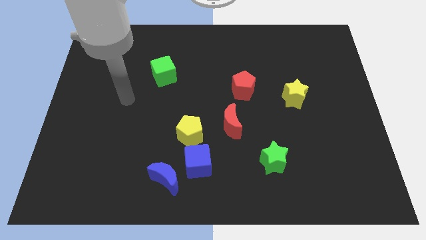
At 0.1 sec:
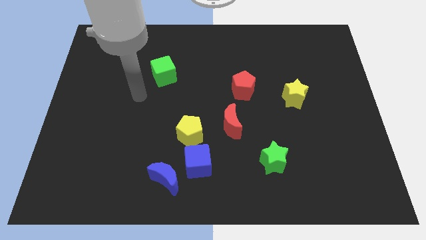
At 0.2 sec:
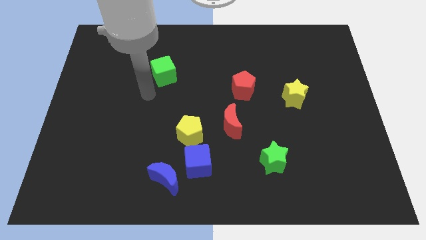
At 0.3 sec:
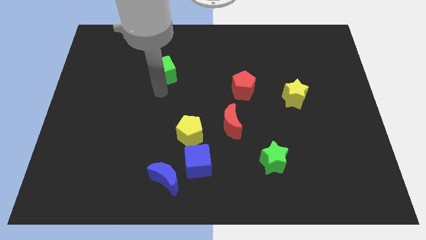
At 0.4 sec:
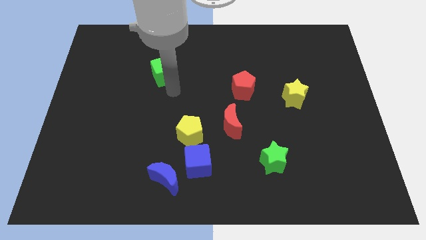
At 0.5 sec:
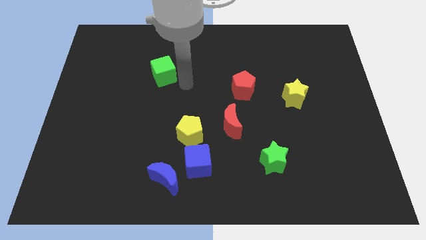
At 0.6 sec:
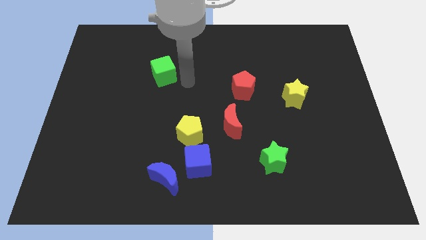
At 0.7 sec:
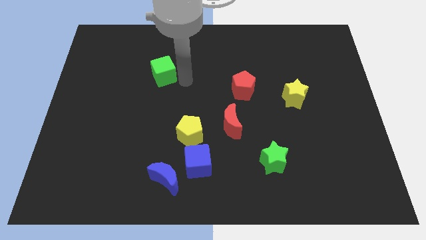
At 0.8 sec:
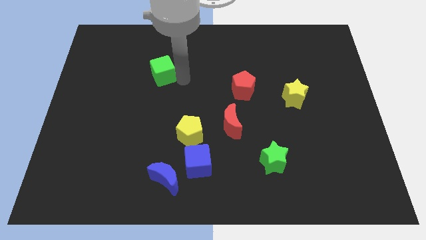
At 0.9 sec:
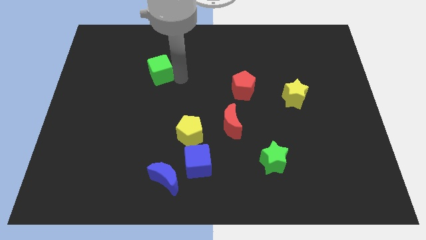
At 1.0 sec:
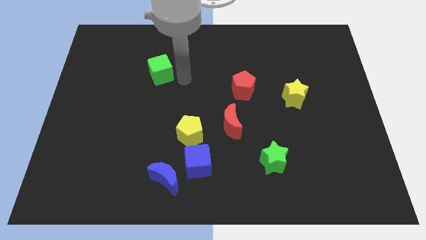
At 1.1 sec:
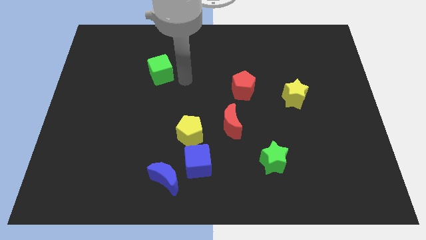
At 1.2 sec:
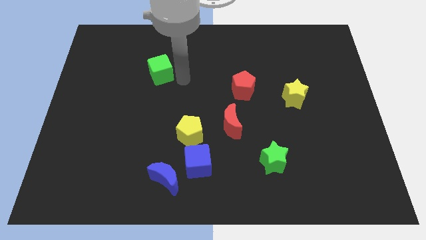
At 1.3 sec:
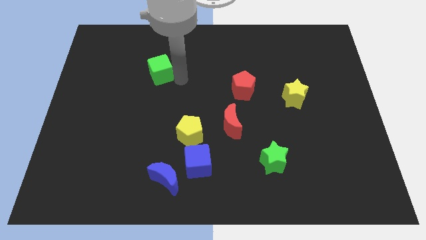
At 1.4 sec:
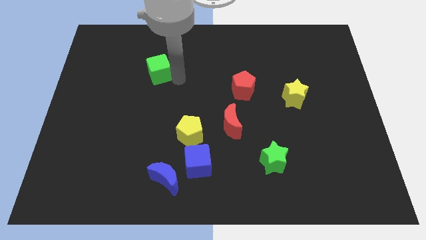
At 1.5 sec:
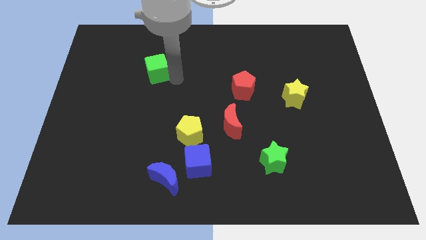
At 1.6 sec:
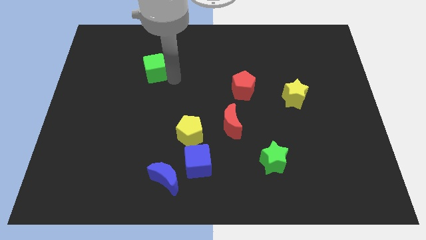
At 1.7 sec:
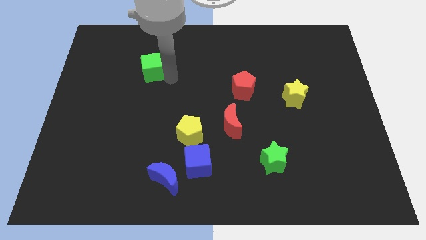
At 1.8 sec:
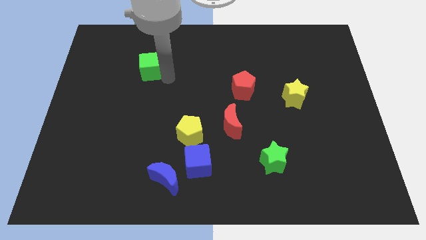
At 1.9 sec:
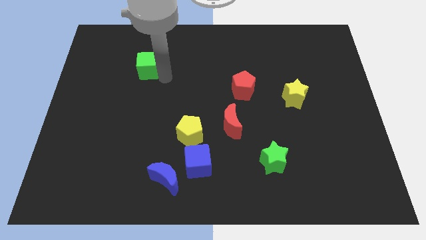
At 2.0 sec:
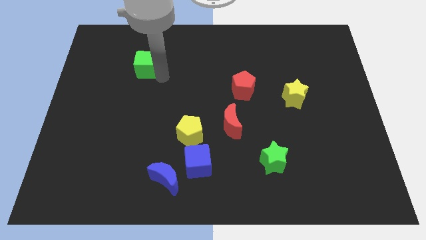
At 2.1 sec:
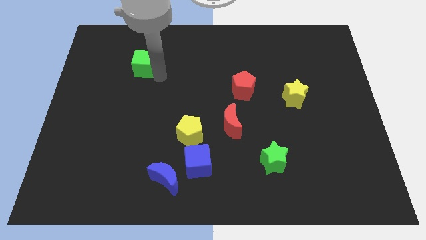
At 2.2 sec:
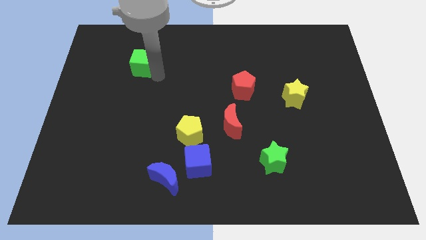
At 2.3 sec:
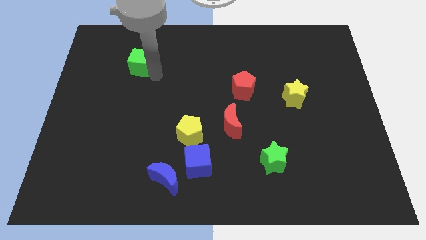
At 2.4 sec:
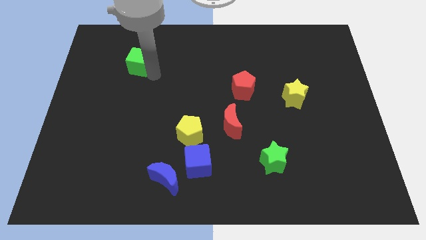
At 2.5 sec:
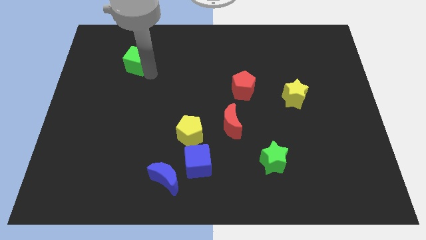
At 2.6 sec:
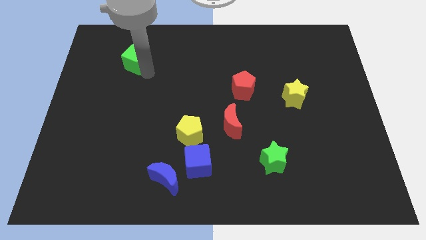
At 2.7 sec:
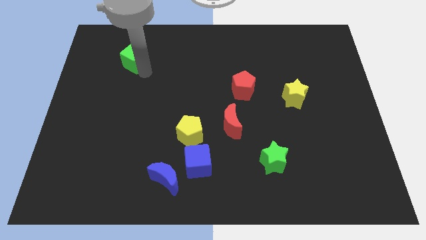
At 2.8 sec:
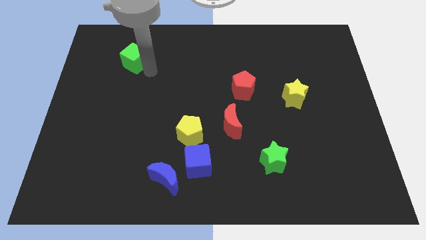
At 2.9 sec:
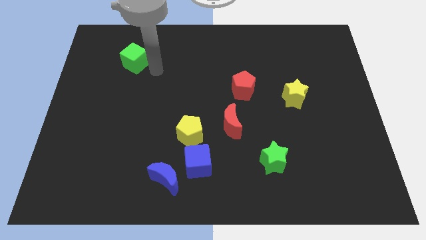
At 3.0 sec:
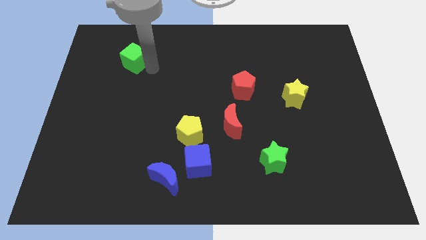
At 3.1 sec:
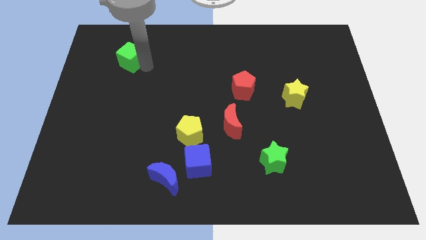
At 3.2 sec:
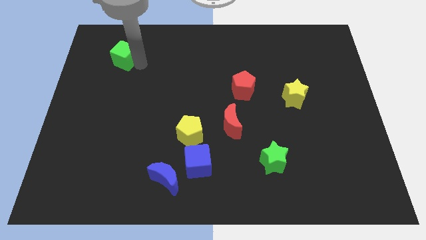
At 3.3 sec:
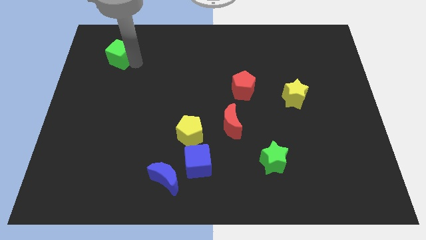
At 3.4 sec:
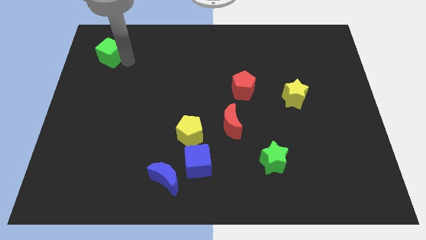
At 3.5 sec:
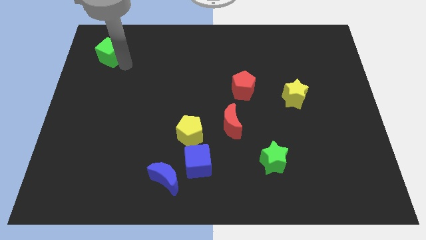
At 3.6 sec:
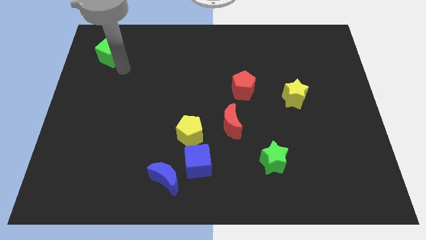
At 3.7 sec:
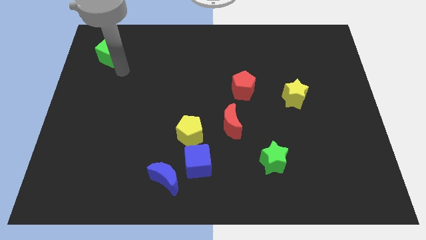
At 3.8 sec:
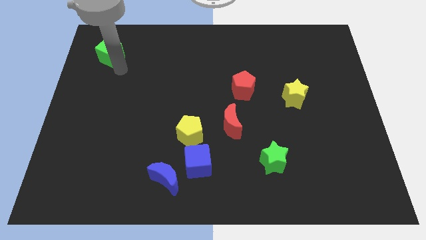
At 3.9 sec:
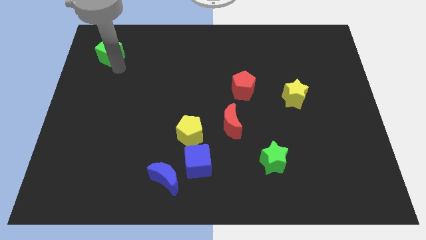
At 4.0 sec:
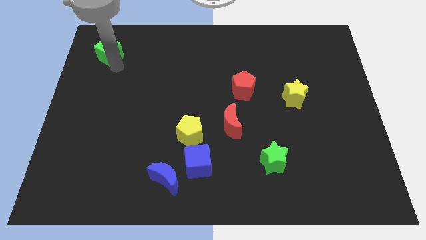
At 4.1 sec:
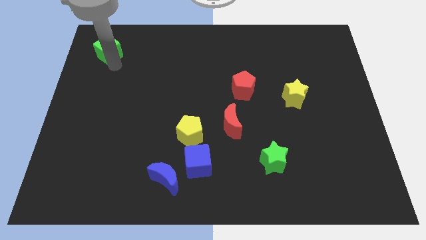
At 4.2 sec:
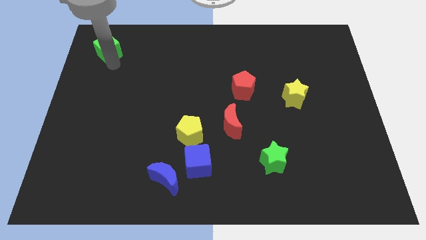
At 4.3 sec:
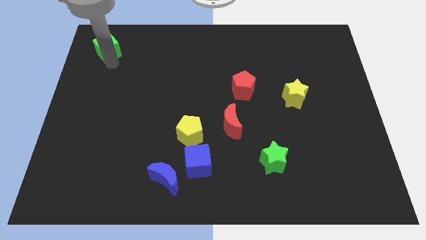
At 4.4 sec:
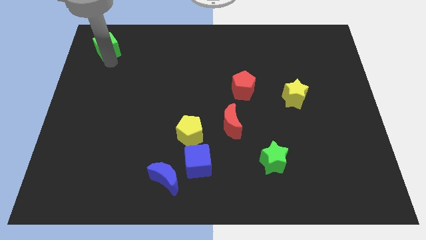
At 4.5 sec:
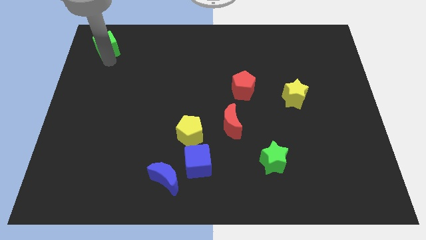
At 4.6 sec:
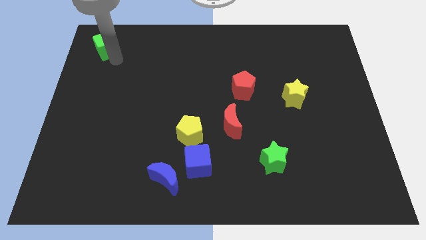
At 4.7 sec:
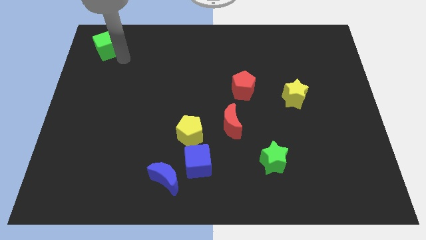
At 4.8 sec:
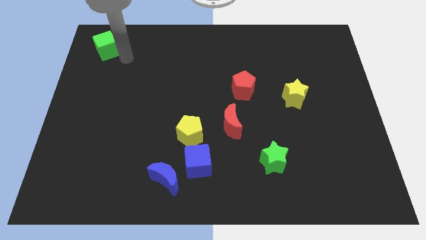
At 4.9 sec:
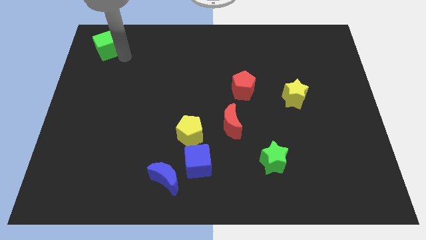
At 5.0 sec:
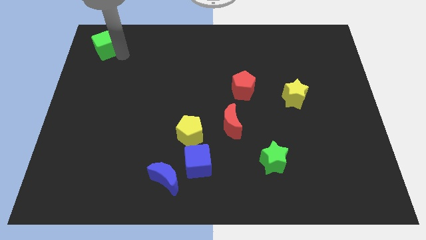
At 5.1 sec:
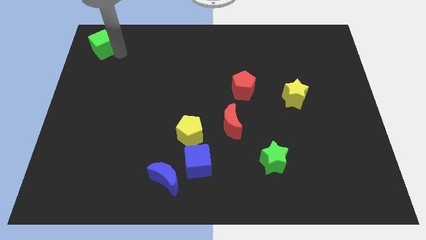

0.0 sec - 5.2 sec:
move the green cube to the top left

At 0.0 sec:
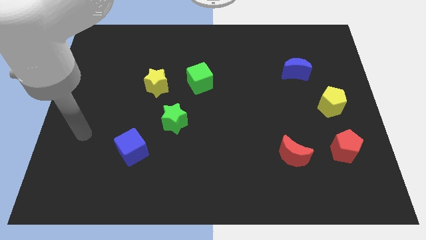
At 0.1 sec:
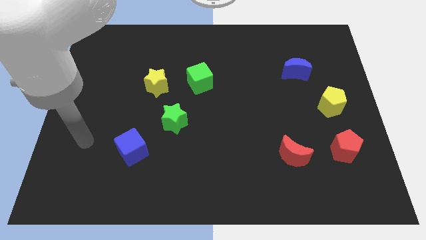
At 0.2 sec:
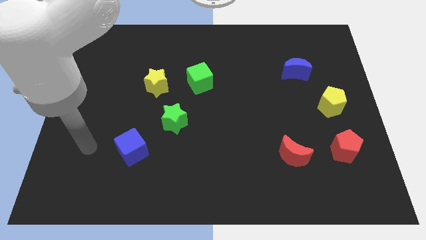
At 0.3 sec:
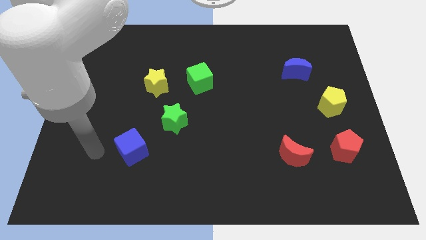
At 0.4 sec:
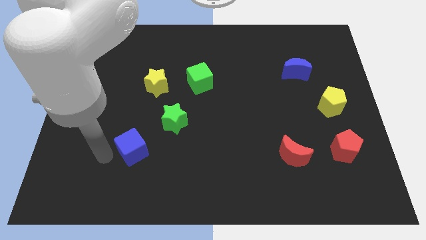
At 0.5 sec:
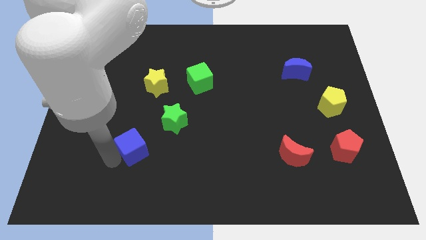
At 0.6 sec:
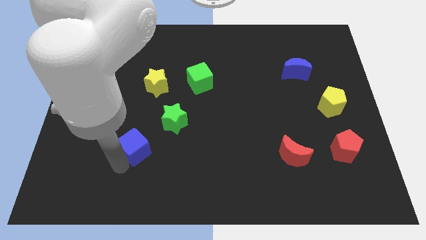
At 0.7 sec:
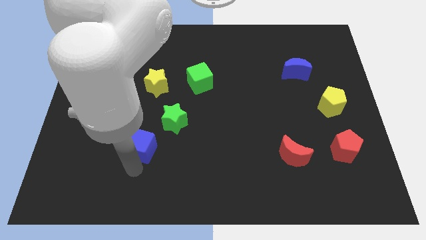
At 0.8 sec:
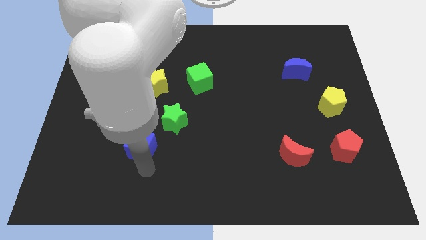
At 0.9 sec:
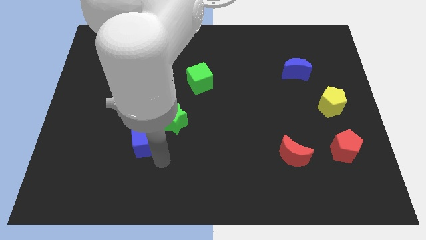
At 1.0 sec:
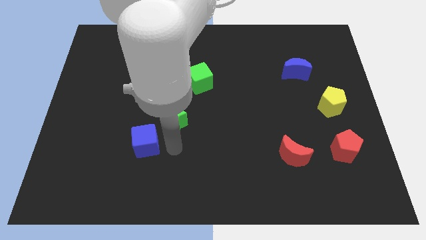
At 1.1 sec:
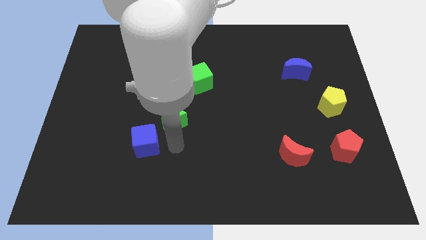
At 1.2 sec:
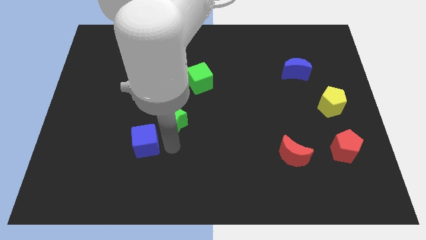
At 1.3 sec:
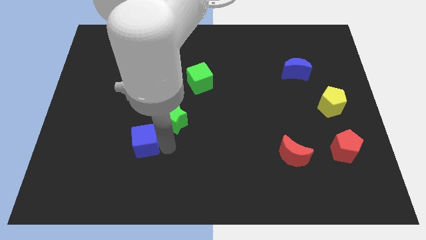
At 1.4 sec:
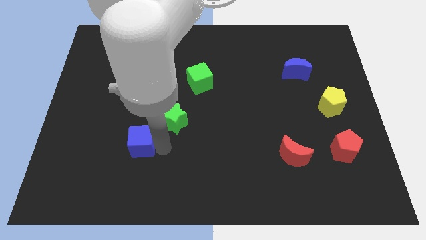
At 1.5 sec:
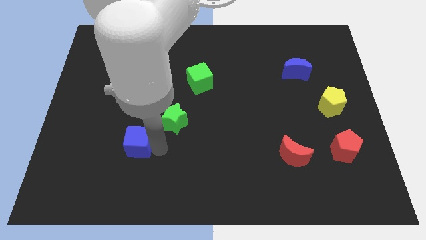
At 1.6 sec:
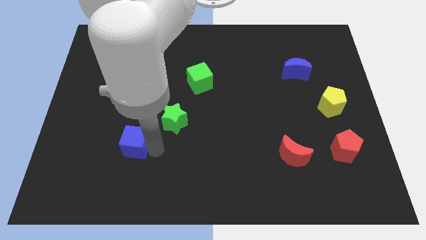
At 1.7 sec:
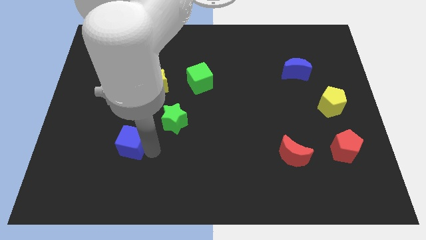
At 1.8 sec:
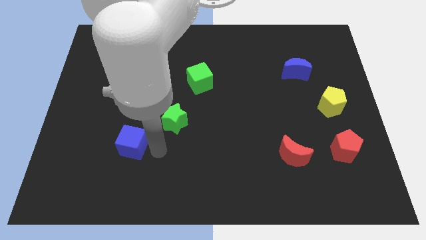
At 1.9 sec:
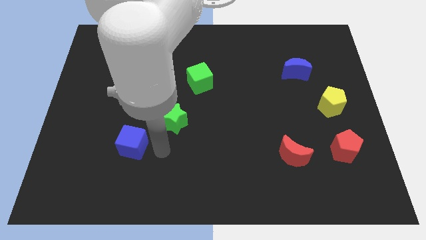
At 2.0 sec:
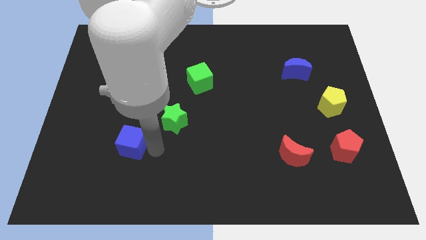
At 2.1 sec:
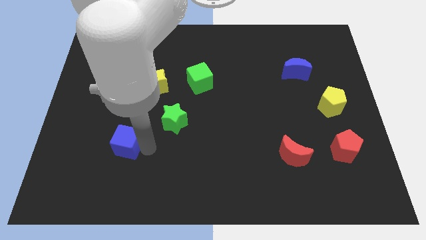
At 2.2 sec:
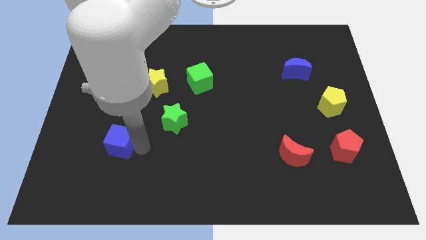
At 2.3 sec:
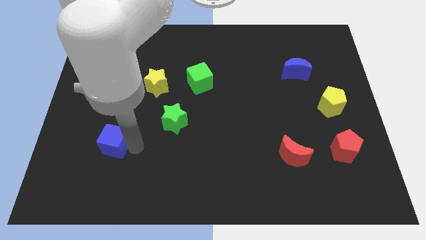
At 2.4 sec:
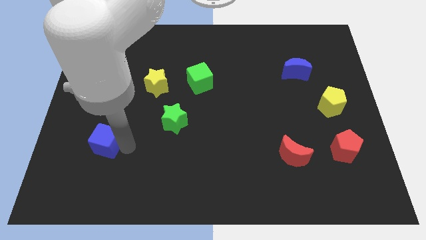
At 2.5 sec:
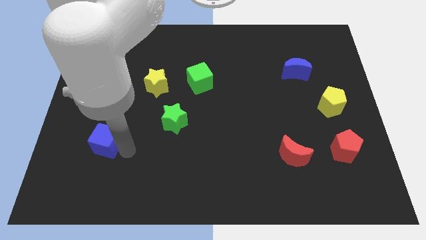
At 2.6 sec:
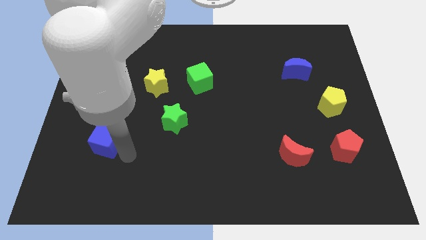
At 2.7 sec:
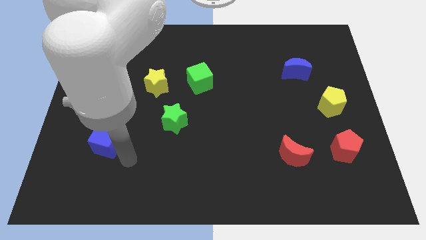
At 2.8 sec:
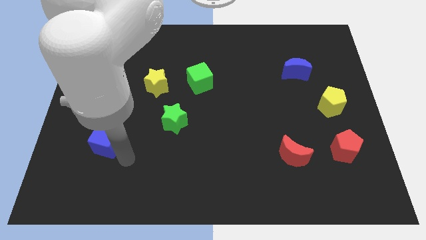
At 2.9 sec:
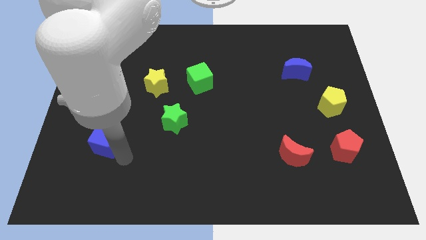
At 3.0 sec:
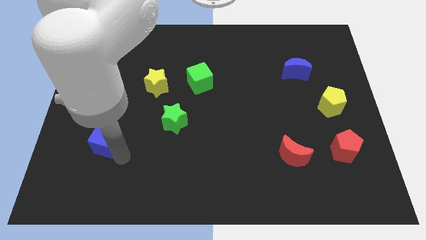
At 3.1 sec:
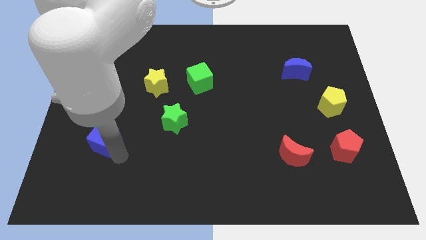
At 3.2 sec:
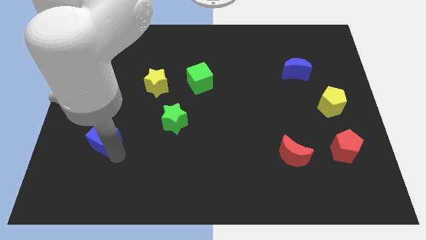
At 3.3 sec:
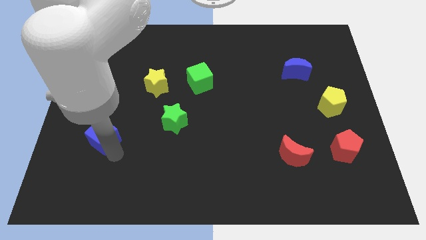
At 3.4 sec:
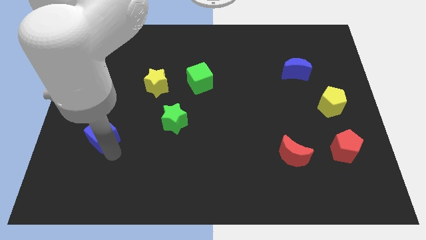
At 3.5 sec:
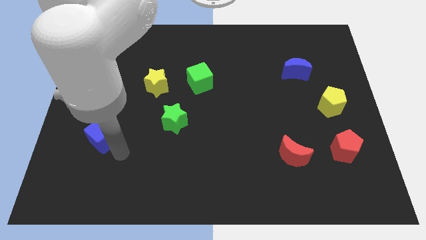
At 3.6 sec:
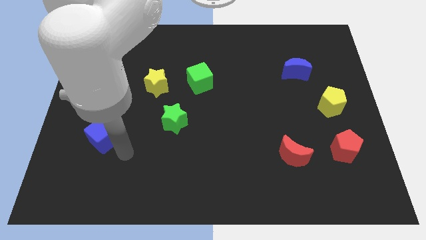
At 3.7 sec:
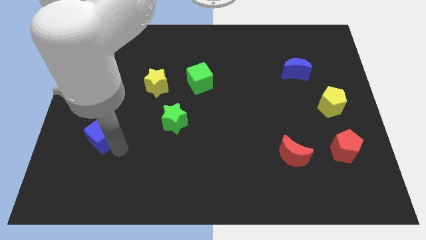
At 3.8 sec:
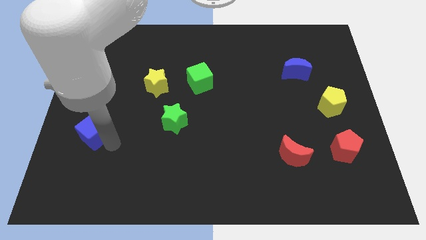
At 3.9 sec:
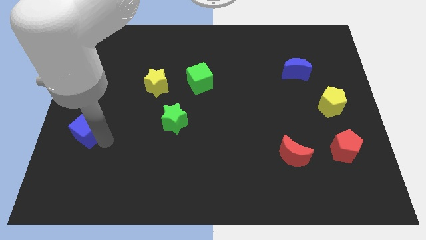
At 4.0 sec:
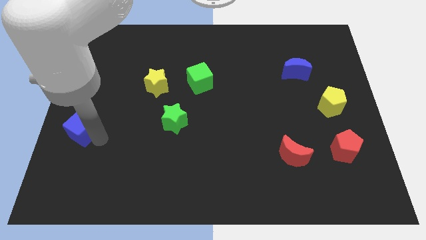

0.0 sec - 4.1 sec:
move the blue cube to the center left
